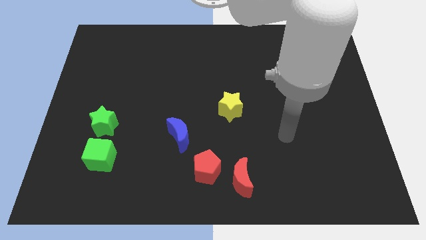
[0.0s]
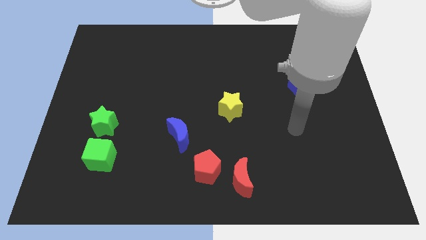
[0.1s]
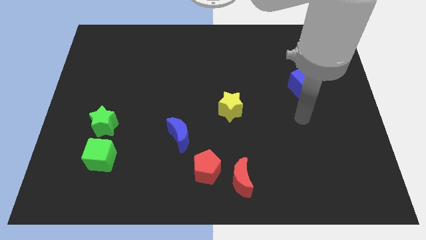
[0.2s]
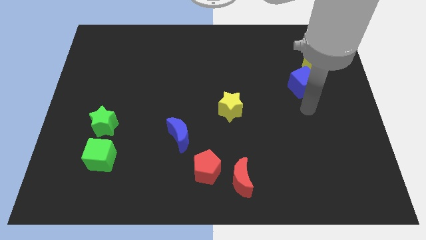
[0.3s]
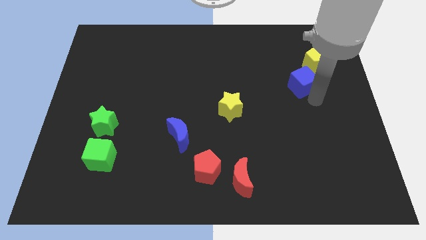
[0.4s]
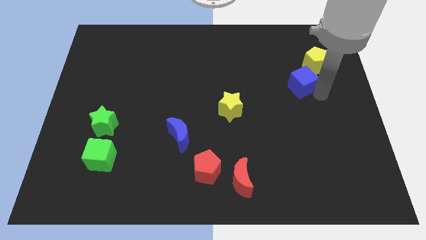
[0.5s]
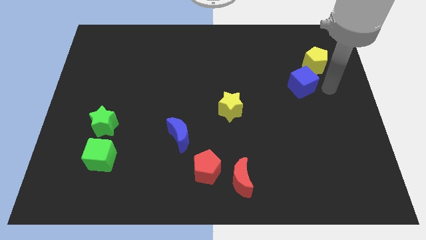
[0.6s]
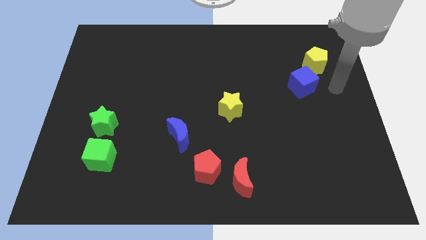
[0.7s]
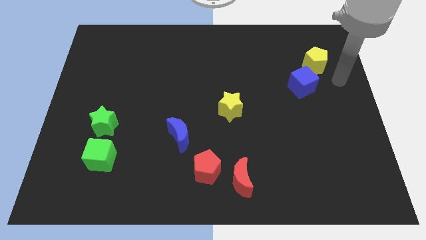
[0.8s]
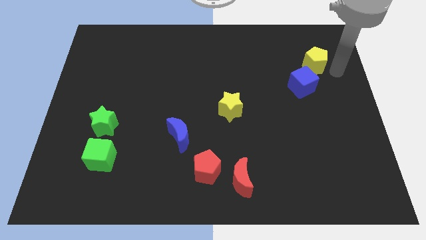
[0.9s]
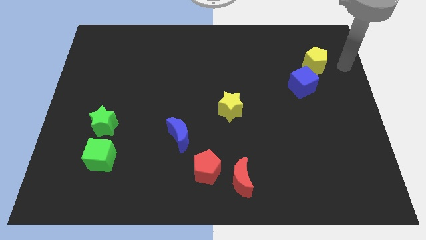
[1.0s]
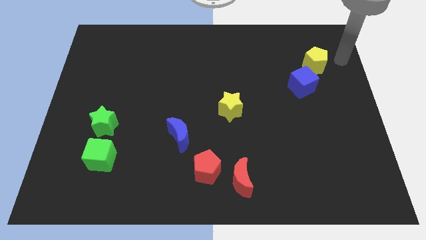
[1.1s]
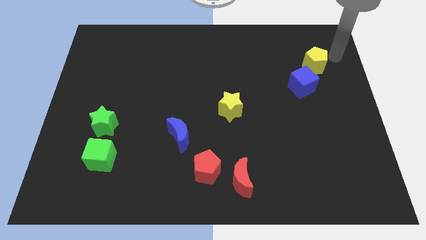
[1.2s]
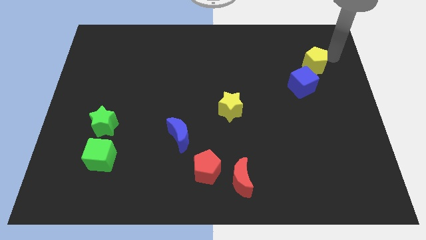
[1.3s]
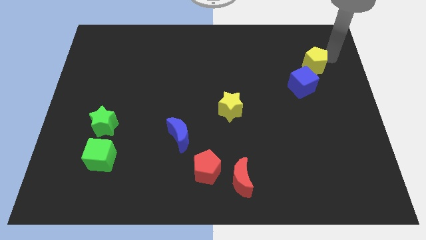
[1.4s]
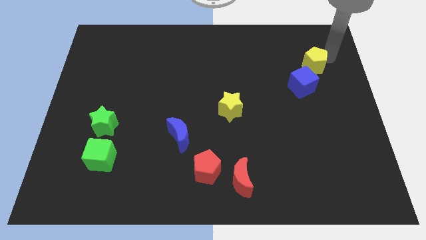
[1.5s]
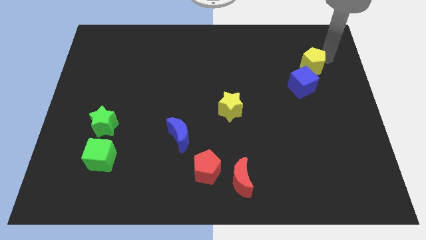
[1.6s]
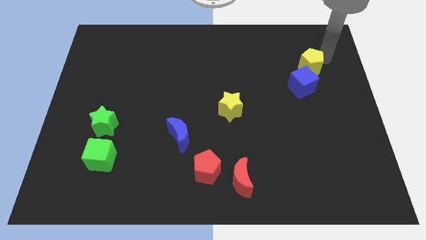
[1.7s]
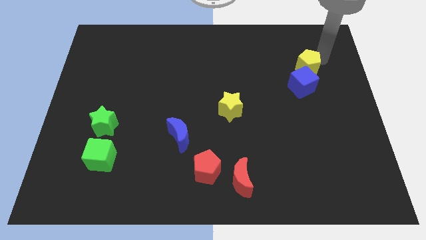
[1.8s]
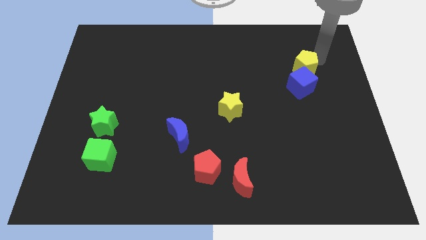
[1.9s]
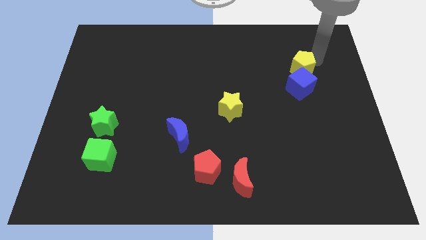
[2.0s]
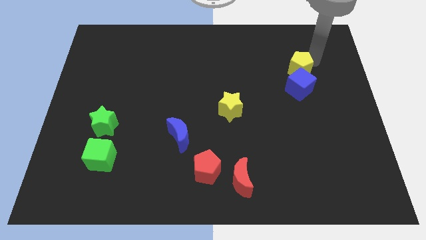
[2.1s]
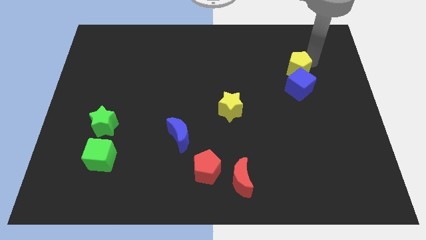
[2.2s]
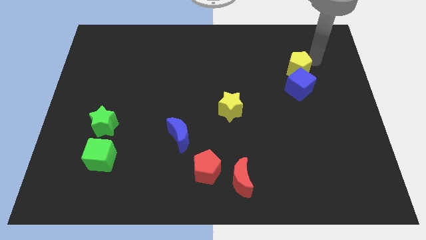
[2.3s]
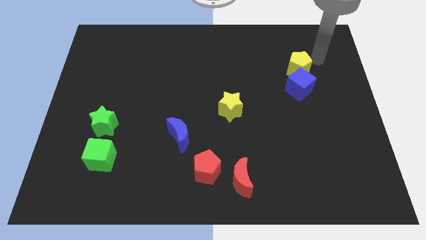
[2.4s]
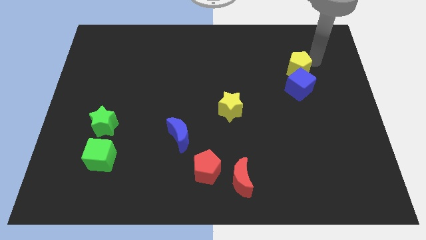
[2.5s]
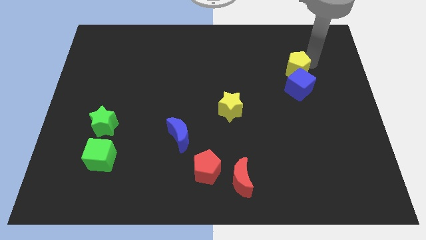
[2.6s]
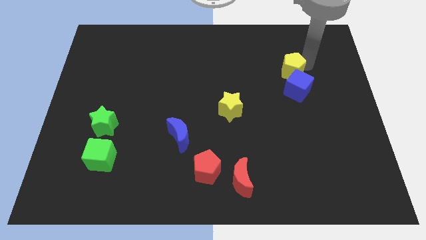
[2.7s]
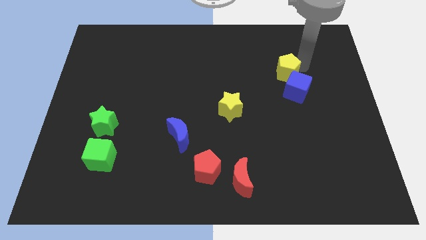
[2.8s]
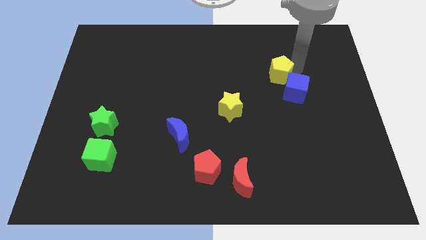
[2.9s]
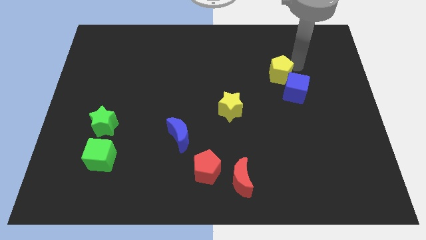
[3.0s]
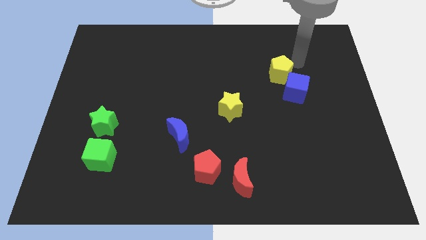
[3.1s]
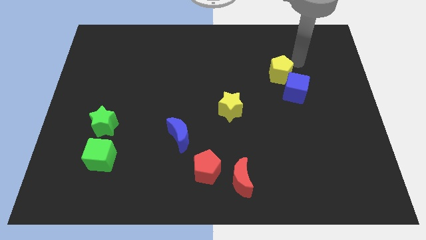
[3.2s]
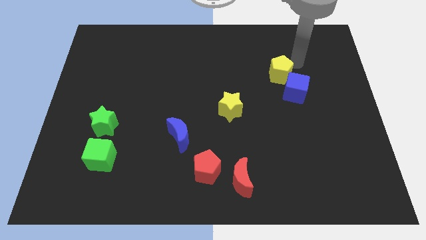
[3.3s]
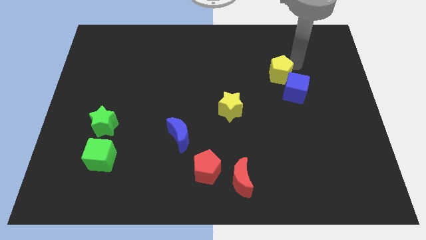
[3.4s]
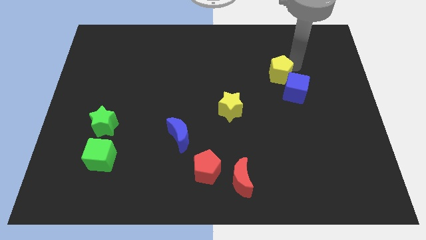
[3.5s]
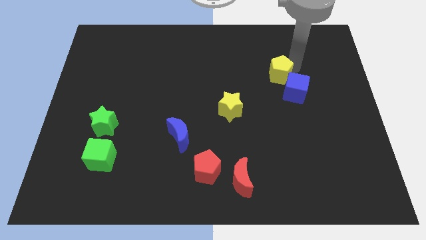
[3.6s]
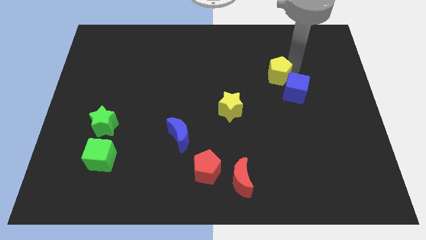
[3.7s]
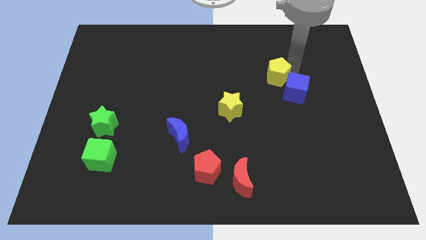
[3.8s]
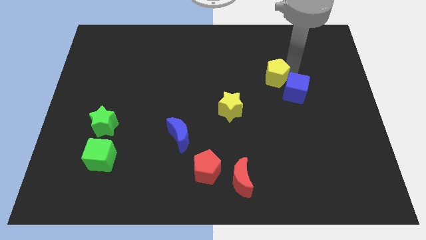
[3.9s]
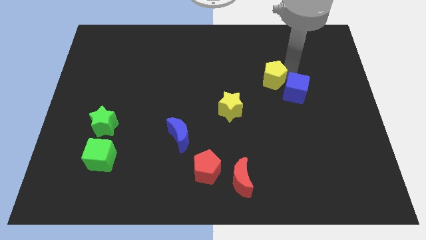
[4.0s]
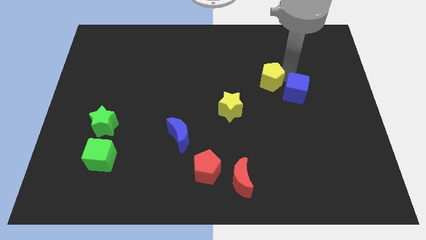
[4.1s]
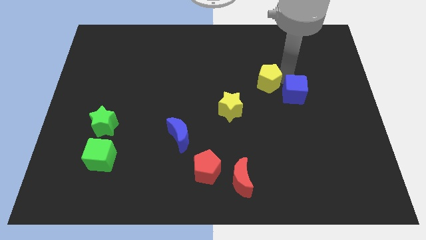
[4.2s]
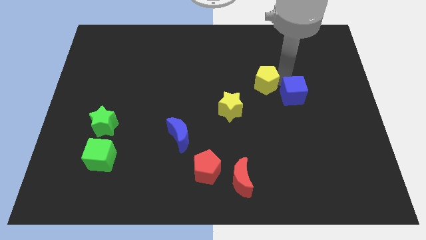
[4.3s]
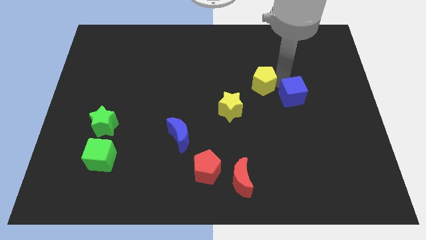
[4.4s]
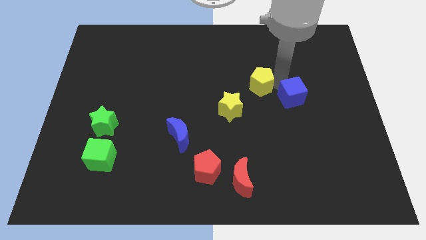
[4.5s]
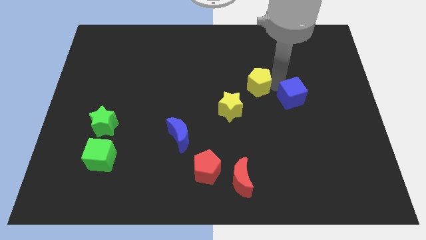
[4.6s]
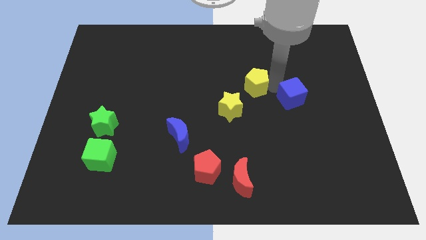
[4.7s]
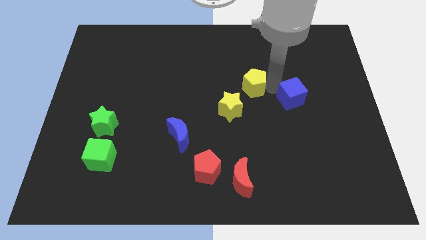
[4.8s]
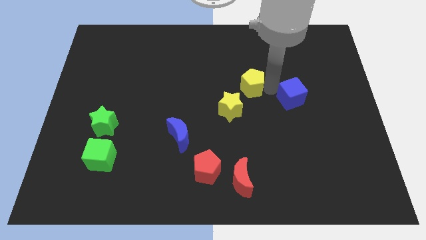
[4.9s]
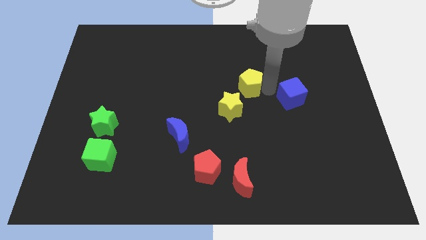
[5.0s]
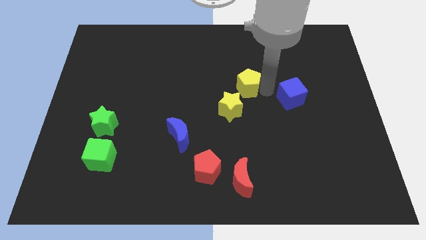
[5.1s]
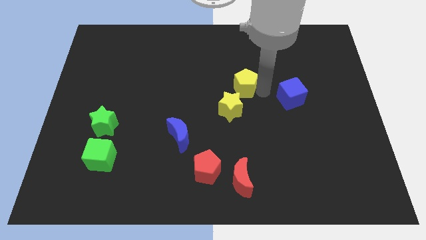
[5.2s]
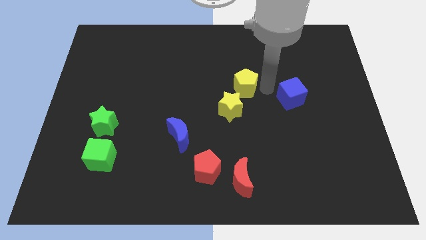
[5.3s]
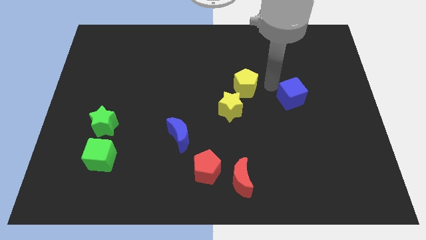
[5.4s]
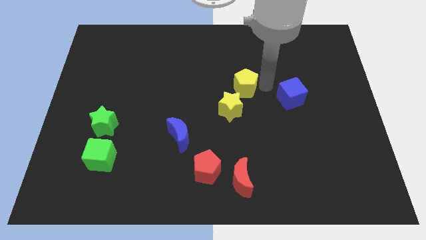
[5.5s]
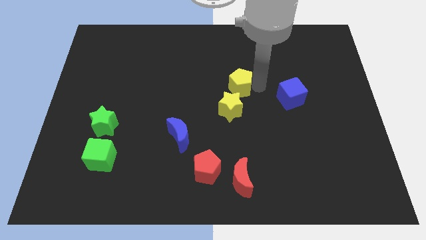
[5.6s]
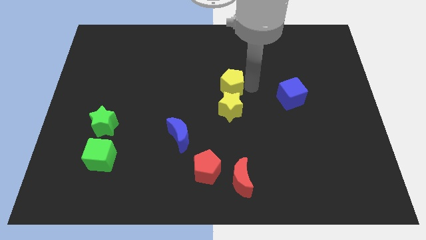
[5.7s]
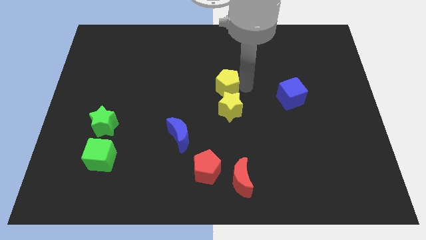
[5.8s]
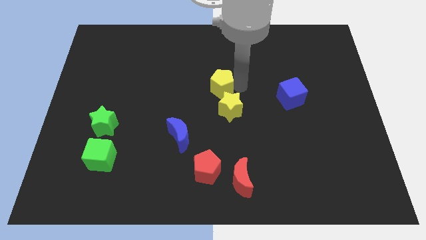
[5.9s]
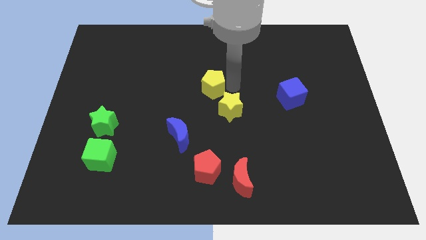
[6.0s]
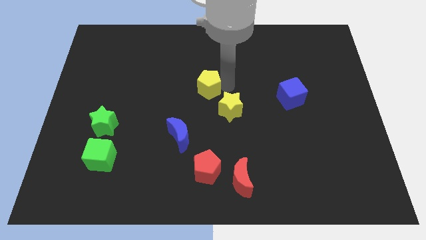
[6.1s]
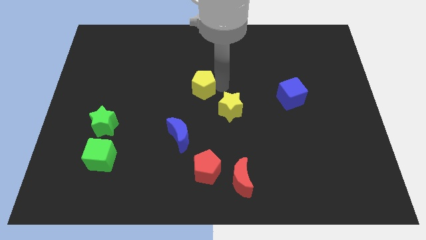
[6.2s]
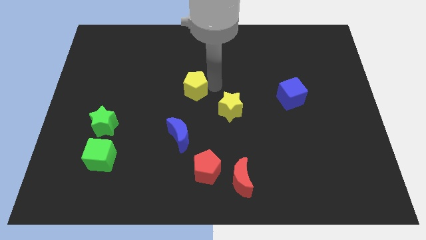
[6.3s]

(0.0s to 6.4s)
move the yellow pentagon to the top side of the blue moon
